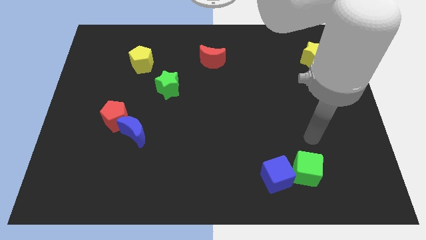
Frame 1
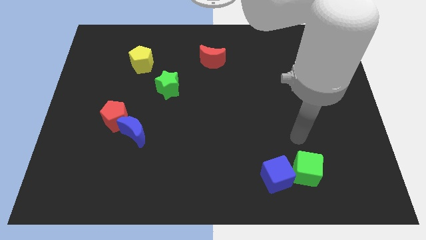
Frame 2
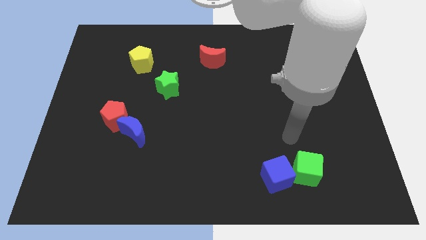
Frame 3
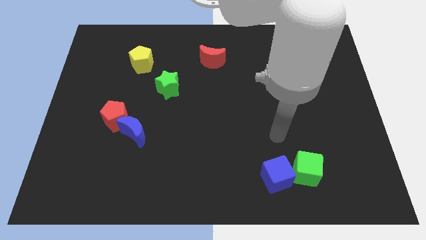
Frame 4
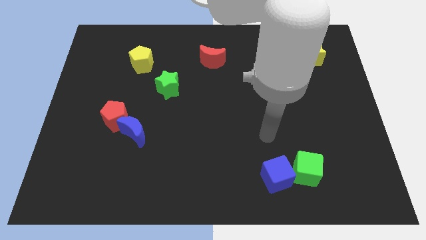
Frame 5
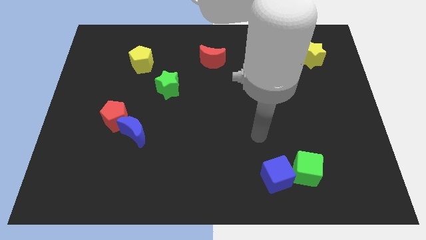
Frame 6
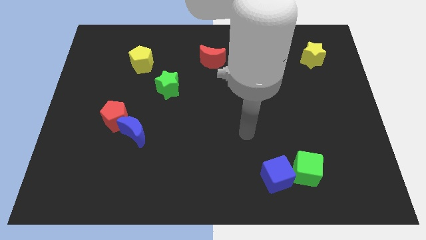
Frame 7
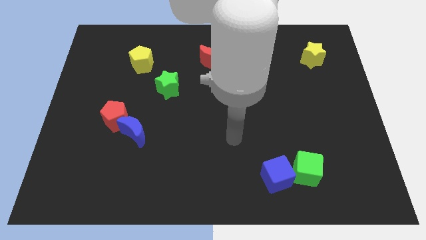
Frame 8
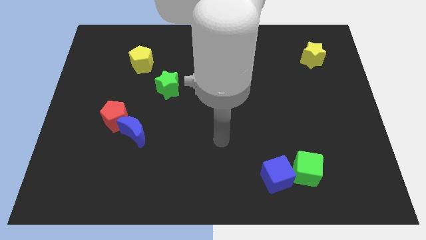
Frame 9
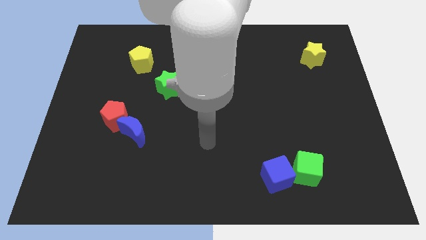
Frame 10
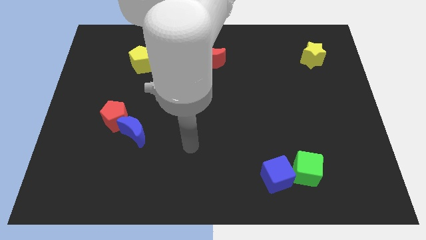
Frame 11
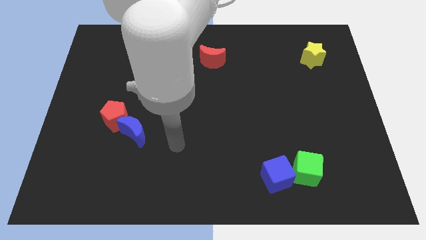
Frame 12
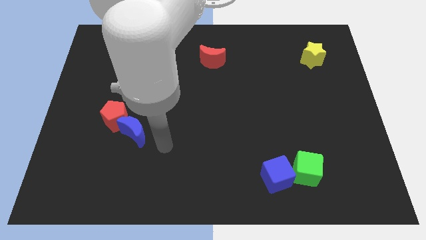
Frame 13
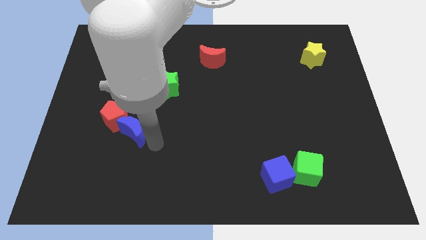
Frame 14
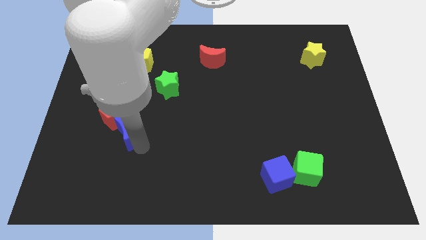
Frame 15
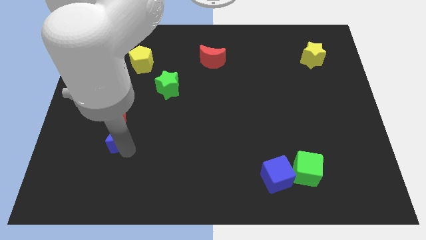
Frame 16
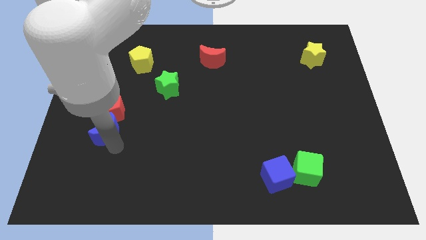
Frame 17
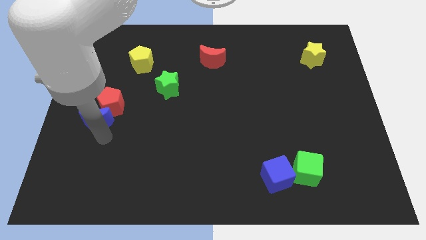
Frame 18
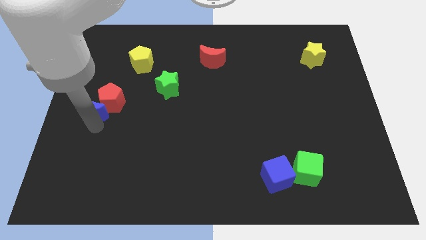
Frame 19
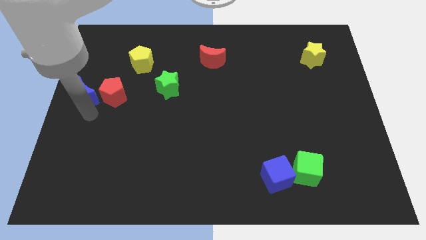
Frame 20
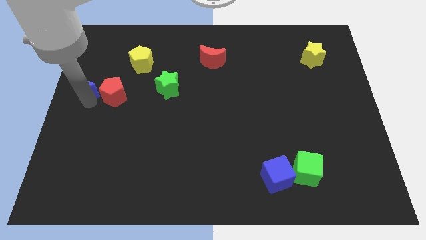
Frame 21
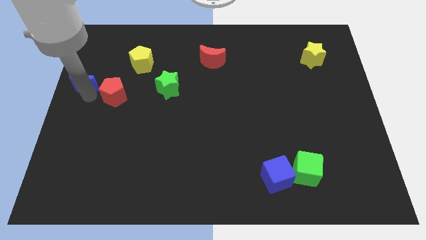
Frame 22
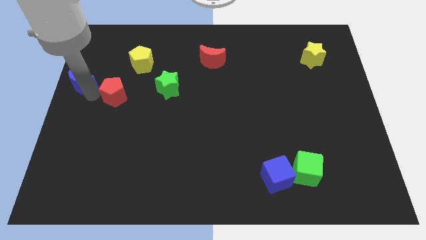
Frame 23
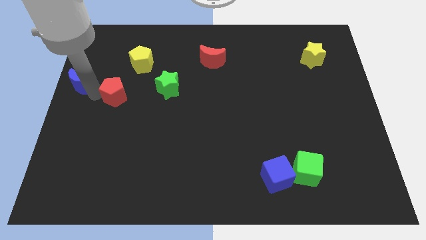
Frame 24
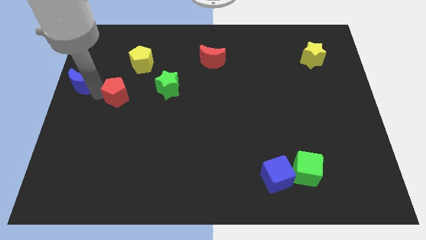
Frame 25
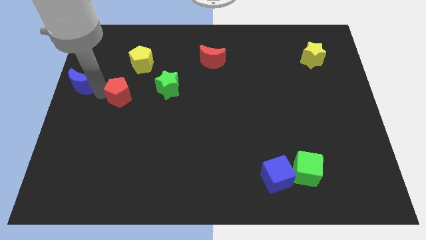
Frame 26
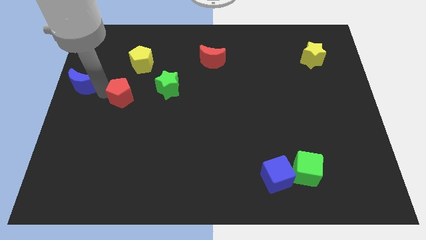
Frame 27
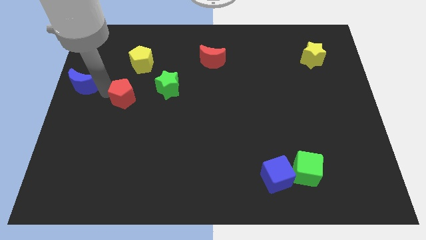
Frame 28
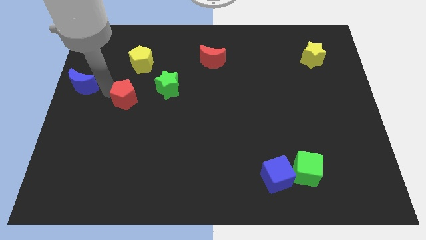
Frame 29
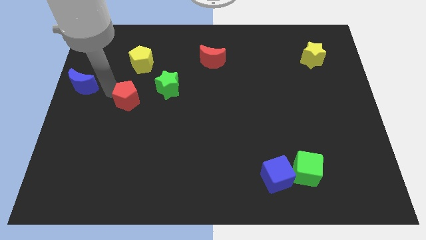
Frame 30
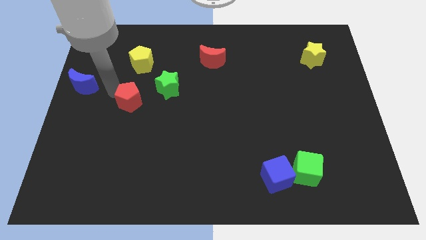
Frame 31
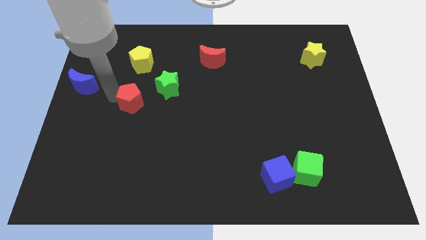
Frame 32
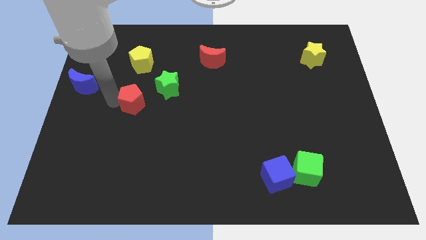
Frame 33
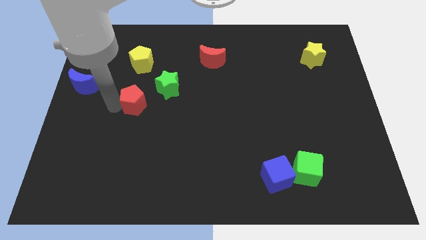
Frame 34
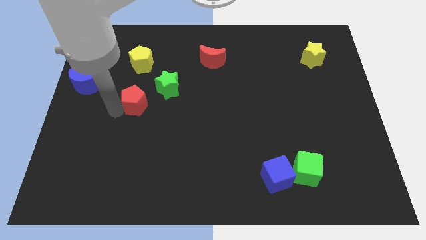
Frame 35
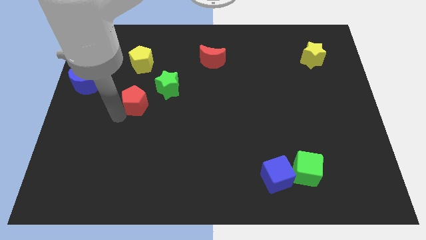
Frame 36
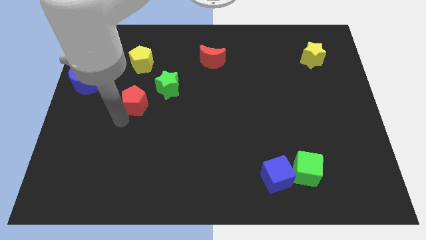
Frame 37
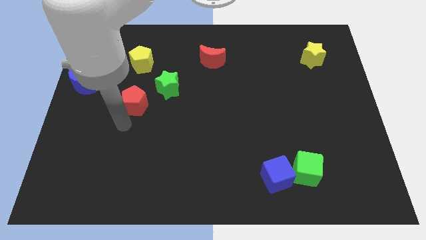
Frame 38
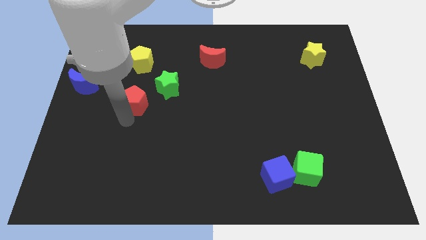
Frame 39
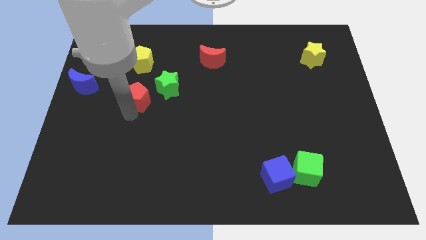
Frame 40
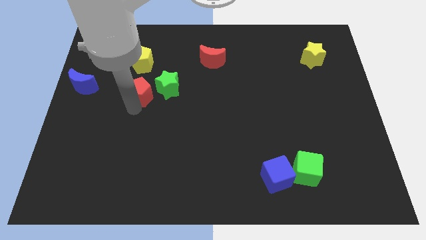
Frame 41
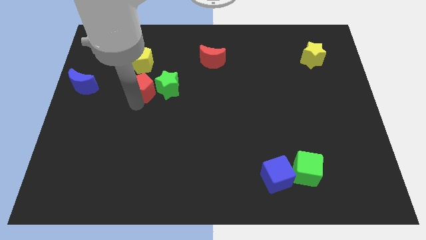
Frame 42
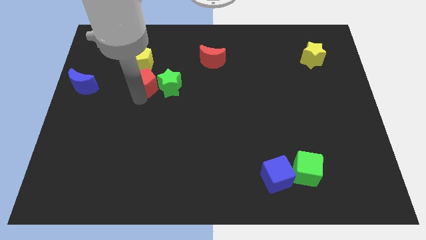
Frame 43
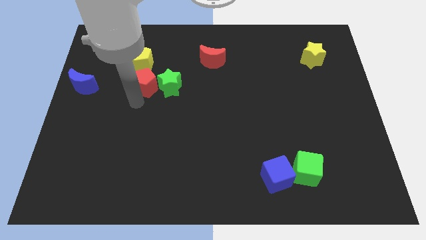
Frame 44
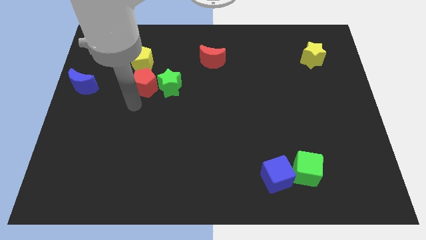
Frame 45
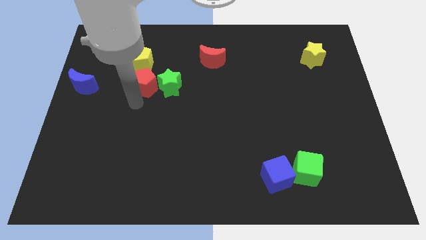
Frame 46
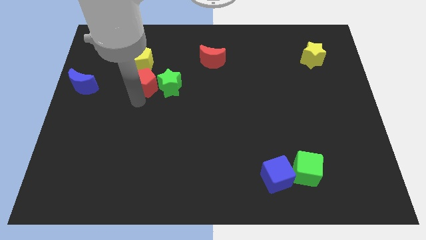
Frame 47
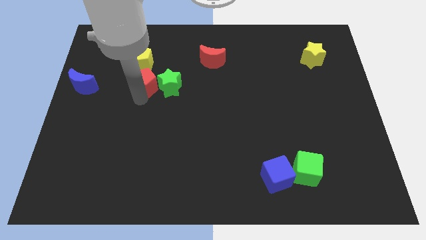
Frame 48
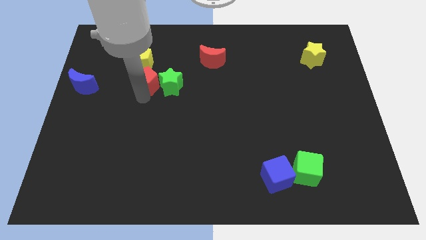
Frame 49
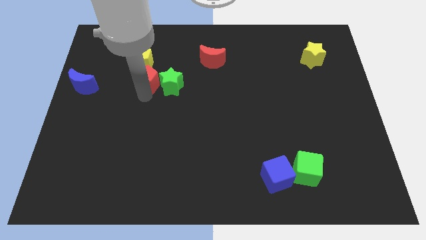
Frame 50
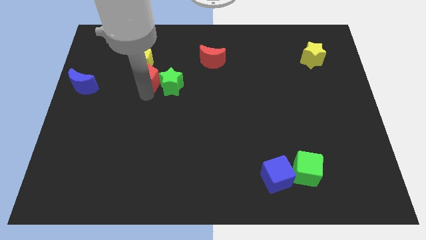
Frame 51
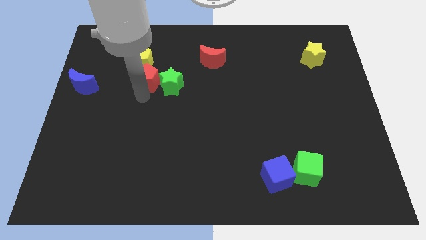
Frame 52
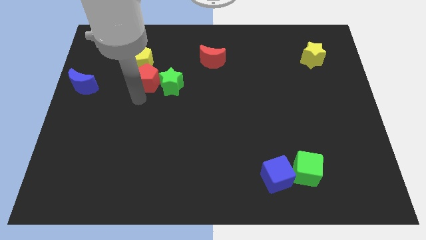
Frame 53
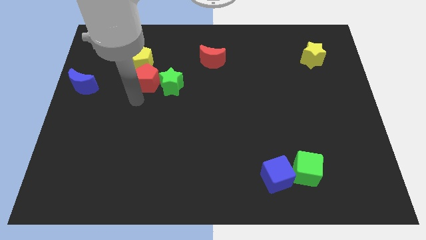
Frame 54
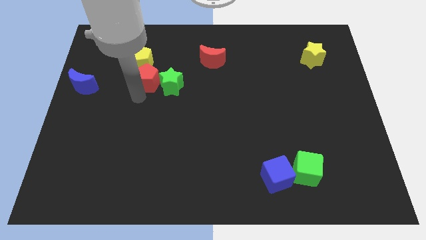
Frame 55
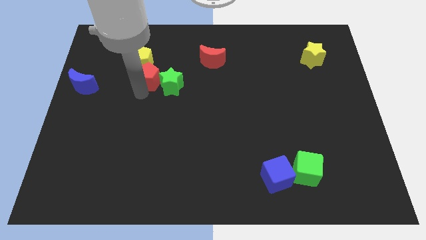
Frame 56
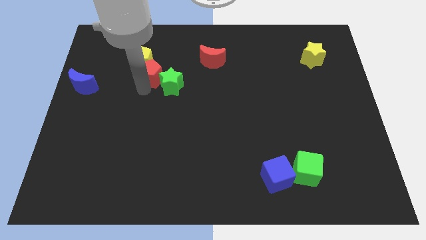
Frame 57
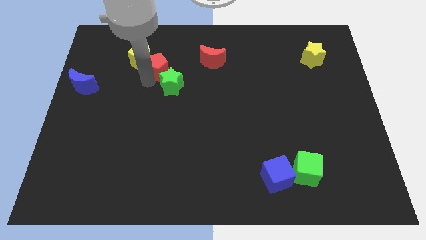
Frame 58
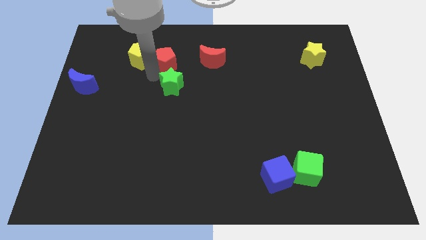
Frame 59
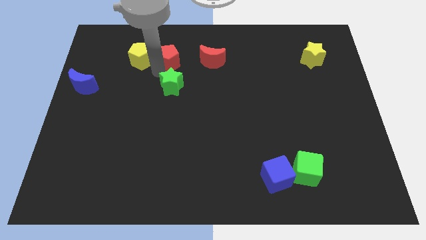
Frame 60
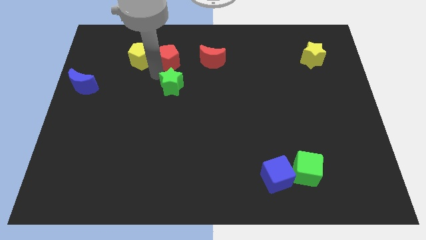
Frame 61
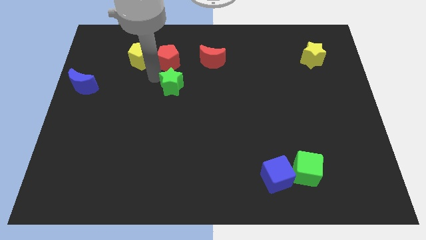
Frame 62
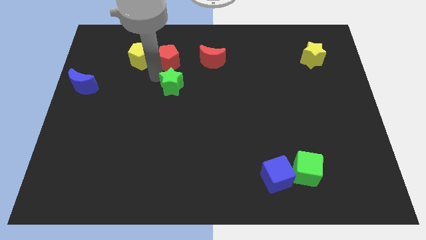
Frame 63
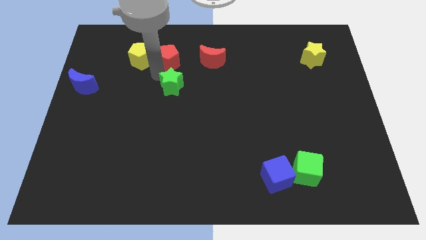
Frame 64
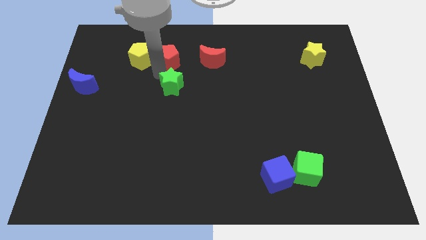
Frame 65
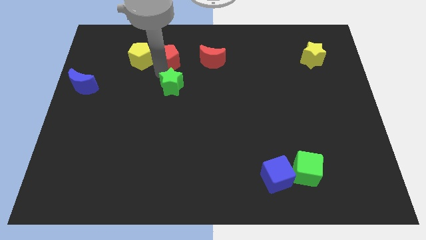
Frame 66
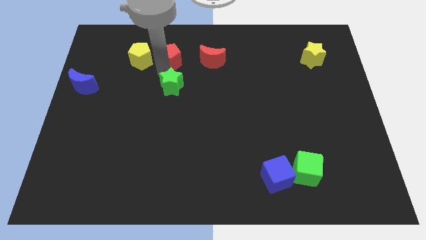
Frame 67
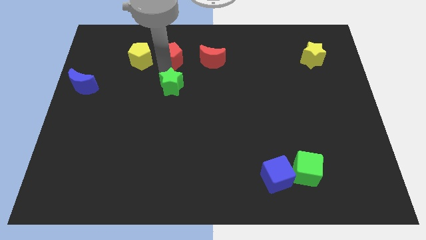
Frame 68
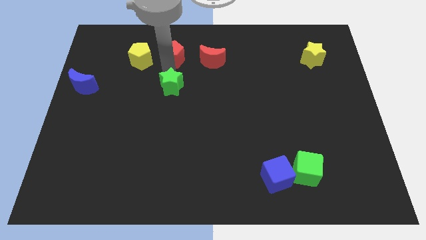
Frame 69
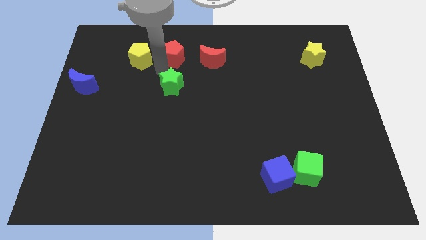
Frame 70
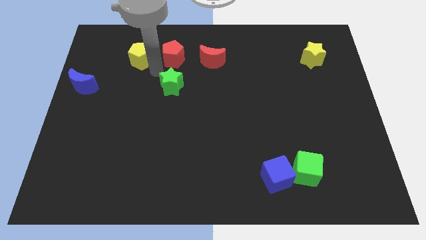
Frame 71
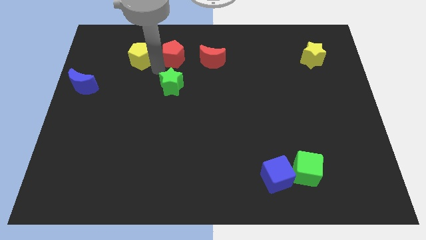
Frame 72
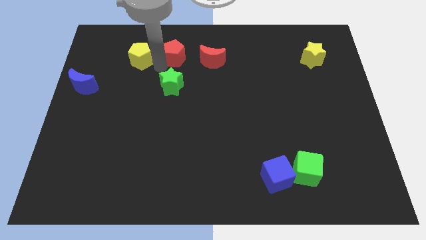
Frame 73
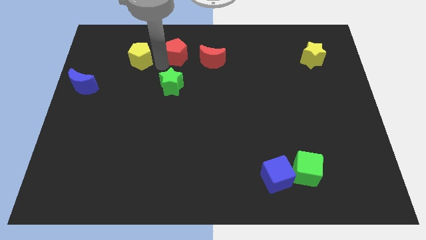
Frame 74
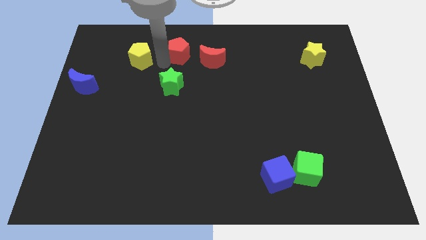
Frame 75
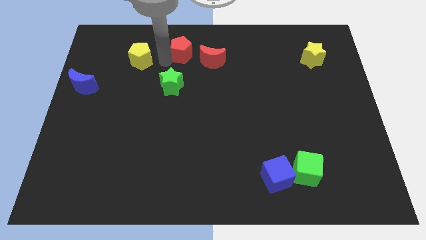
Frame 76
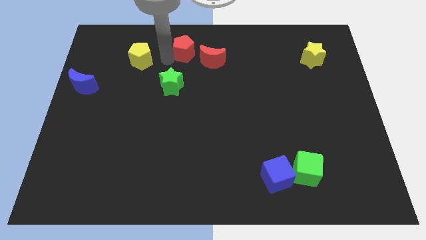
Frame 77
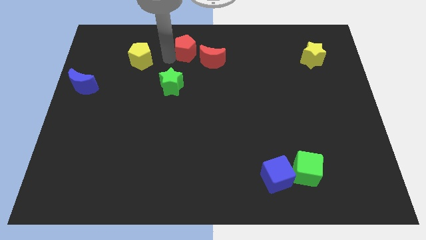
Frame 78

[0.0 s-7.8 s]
slide the red pentagon to the top
